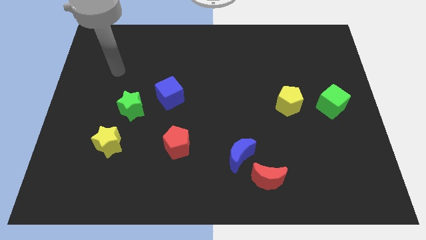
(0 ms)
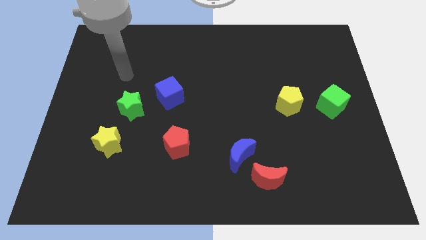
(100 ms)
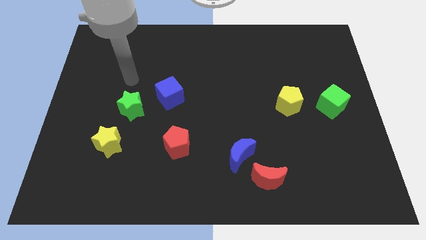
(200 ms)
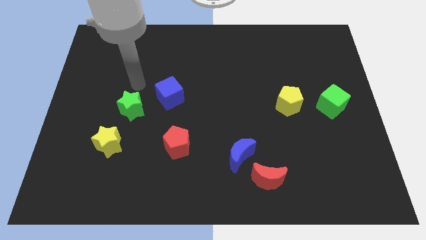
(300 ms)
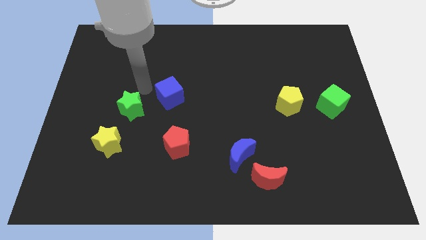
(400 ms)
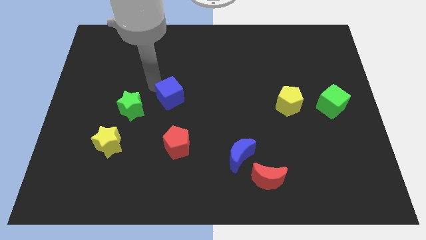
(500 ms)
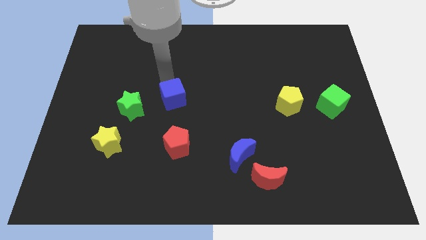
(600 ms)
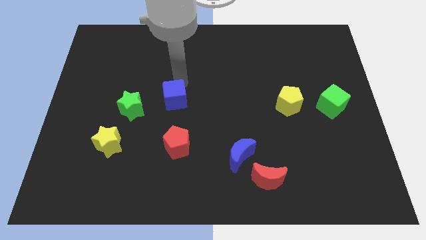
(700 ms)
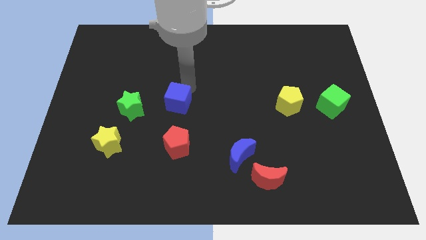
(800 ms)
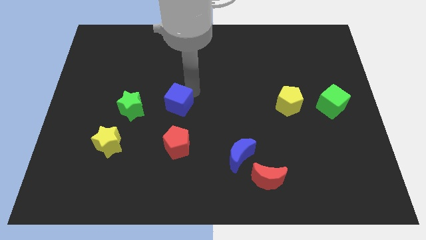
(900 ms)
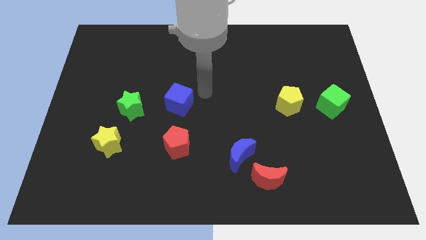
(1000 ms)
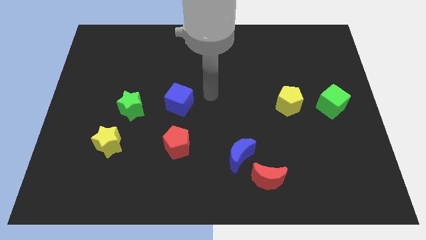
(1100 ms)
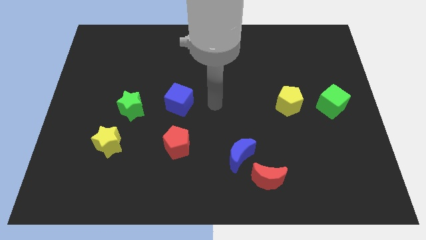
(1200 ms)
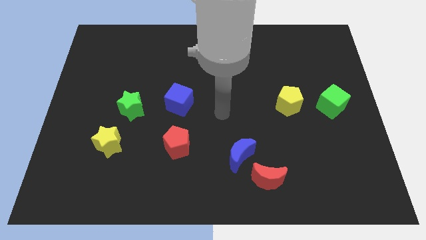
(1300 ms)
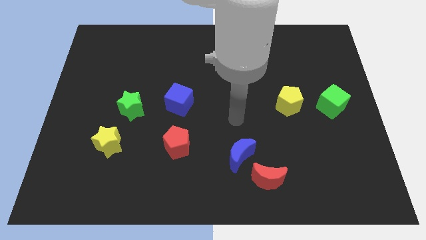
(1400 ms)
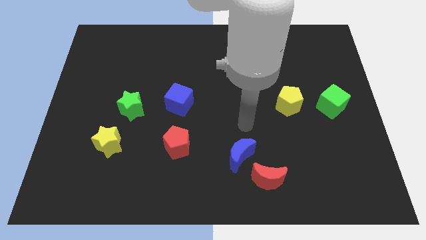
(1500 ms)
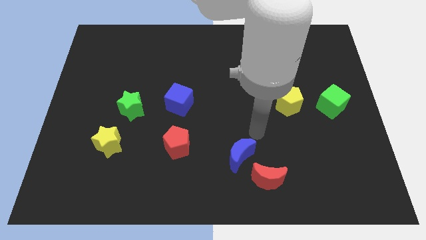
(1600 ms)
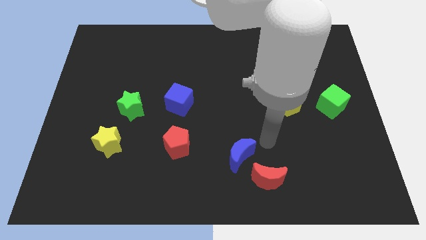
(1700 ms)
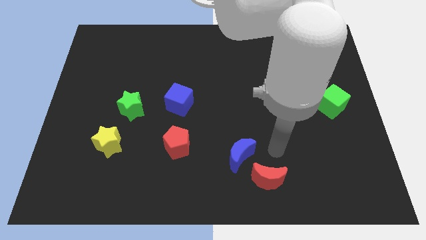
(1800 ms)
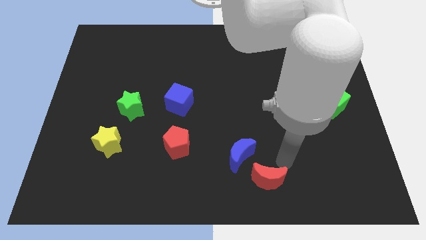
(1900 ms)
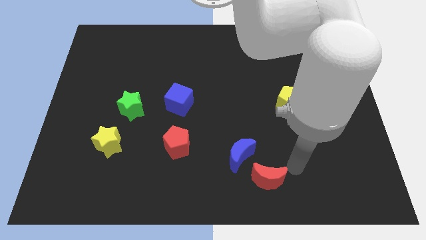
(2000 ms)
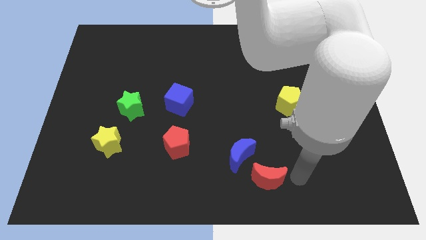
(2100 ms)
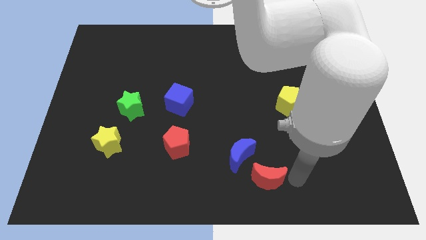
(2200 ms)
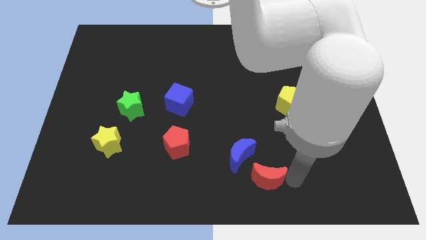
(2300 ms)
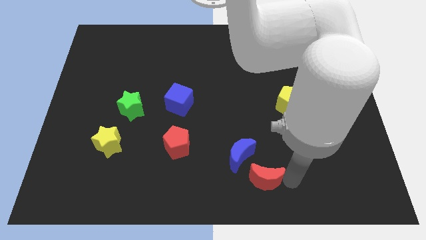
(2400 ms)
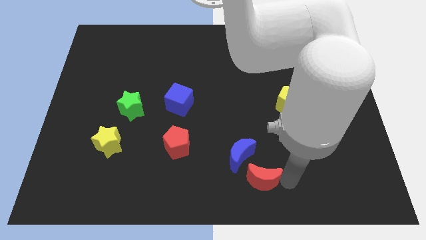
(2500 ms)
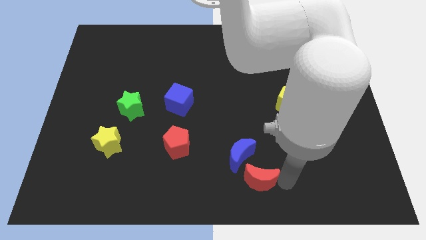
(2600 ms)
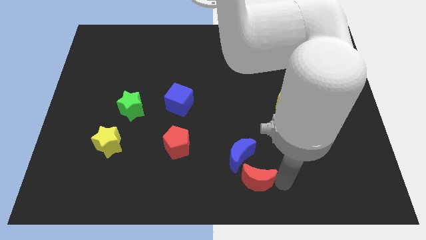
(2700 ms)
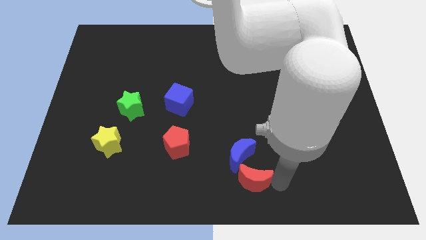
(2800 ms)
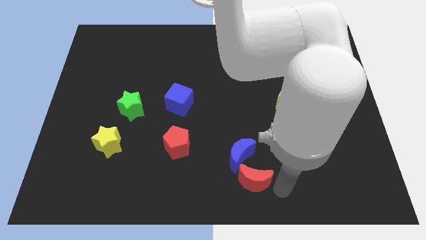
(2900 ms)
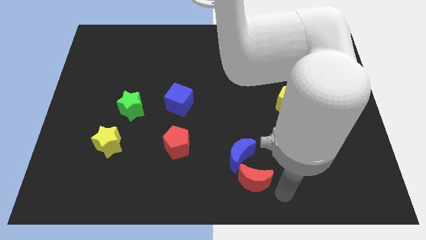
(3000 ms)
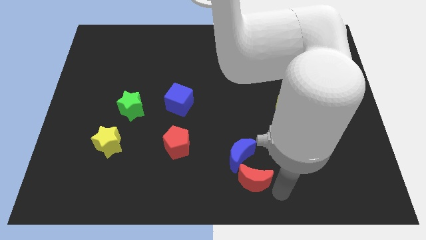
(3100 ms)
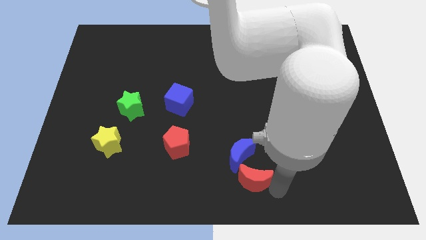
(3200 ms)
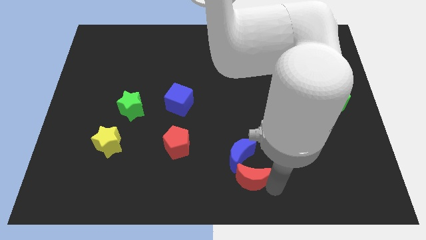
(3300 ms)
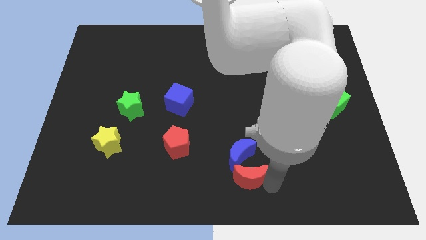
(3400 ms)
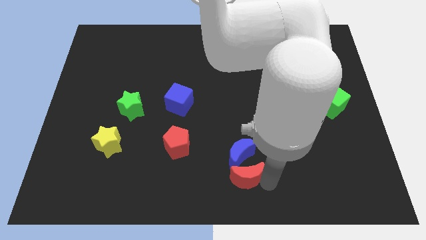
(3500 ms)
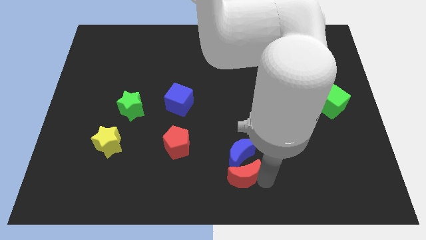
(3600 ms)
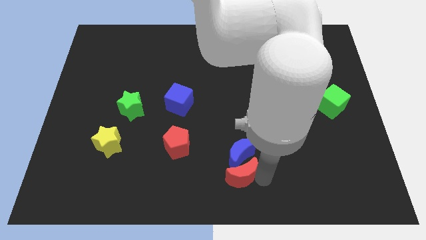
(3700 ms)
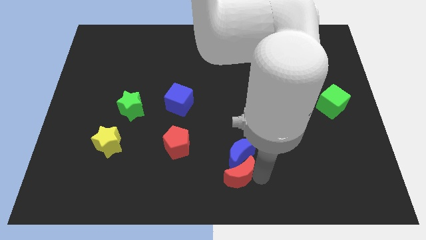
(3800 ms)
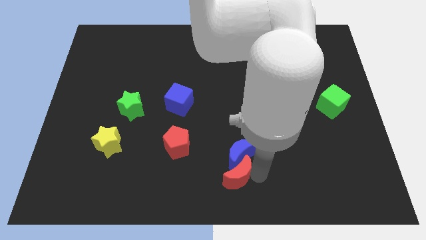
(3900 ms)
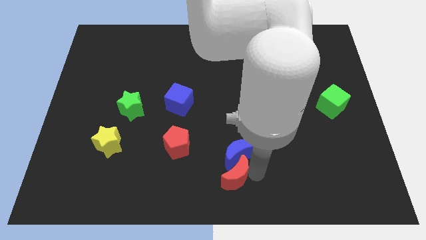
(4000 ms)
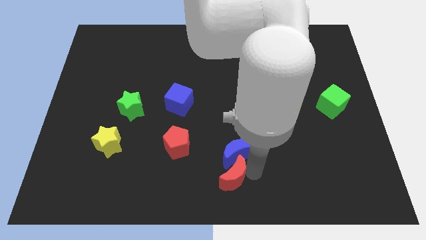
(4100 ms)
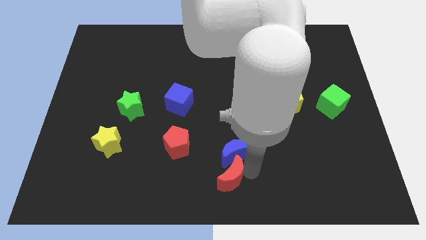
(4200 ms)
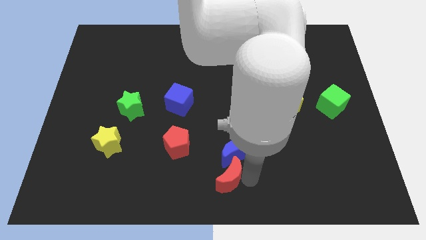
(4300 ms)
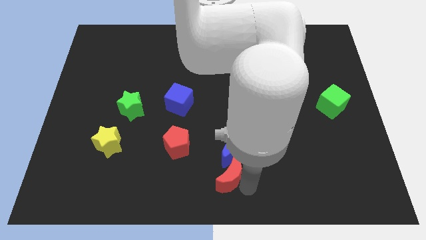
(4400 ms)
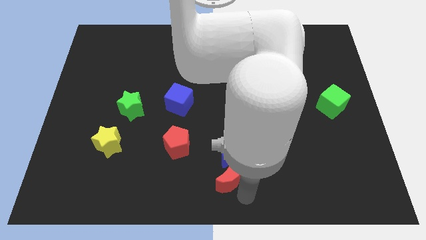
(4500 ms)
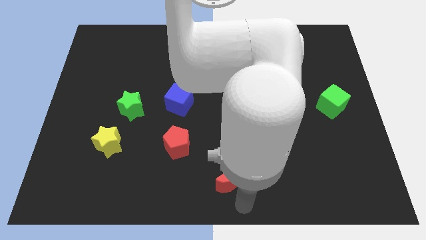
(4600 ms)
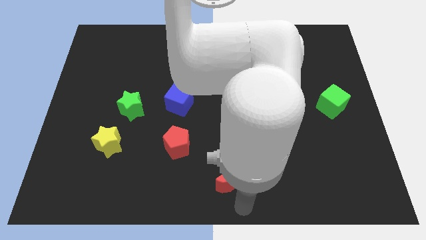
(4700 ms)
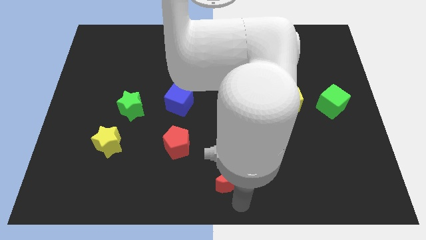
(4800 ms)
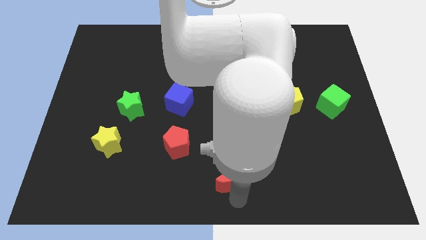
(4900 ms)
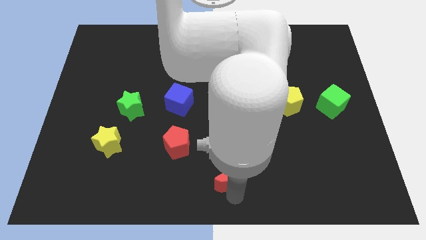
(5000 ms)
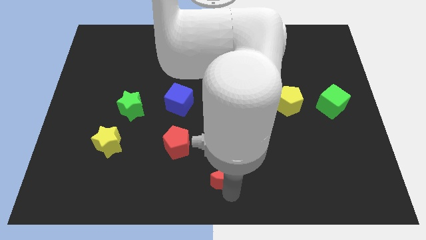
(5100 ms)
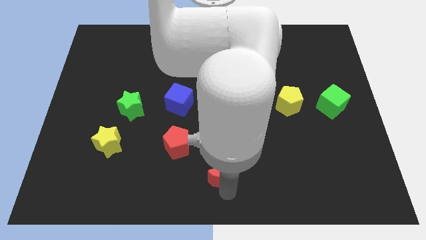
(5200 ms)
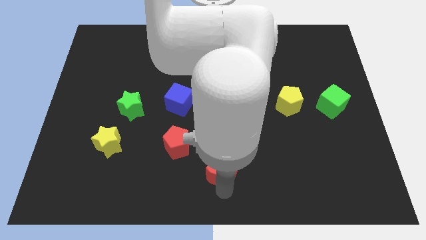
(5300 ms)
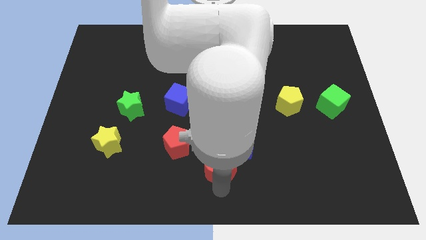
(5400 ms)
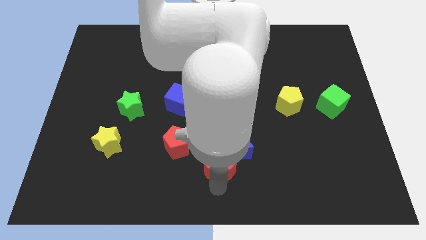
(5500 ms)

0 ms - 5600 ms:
slightly move the red moon upwards and then left

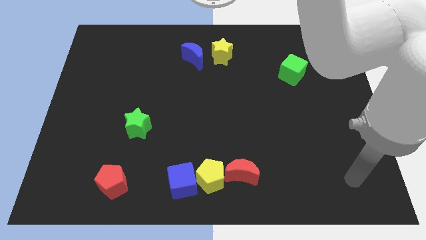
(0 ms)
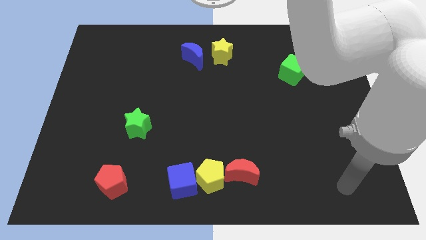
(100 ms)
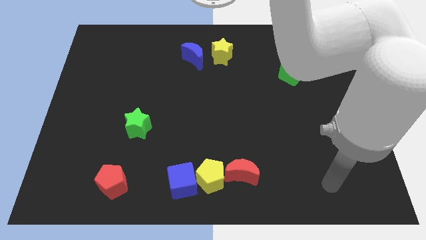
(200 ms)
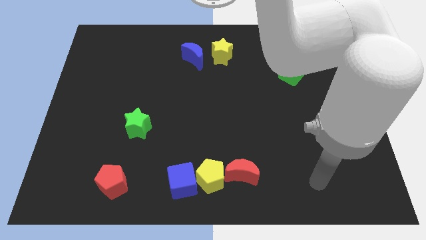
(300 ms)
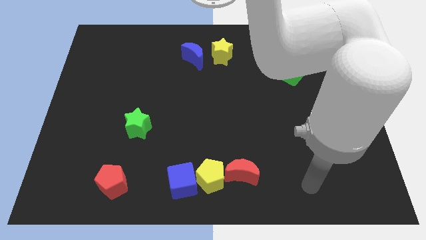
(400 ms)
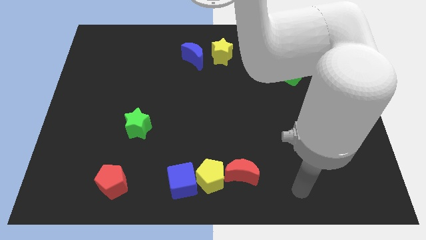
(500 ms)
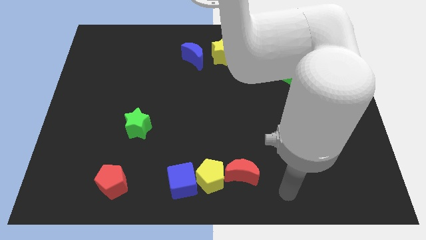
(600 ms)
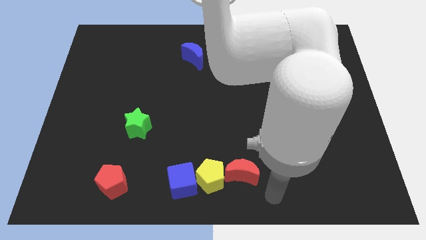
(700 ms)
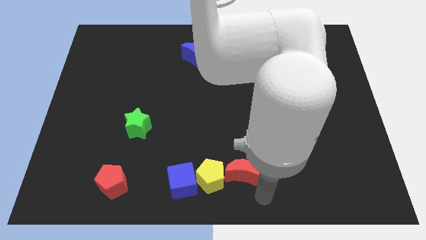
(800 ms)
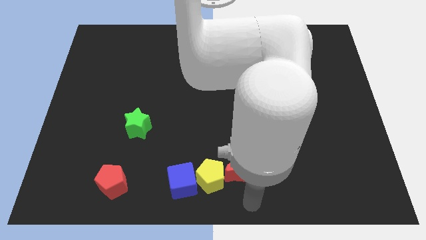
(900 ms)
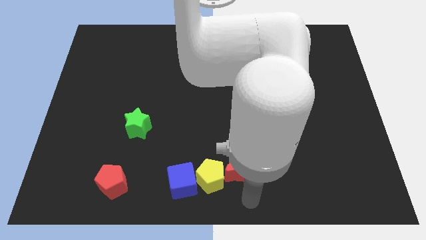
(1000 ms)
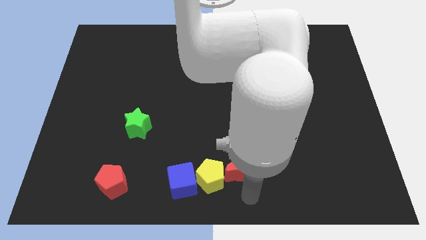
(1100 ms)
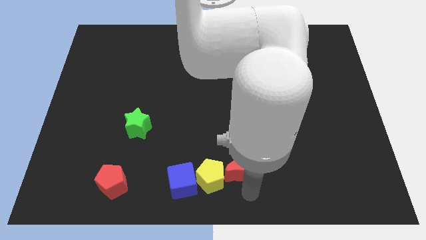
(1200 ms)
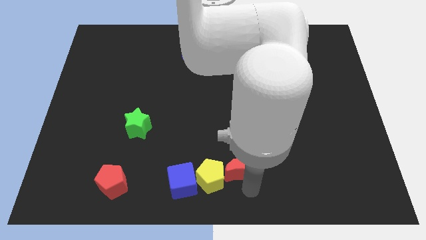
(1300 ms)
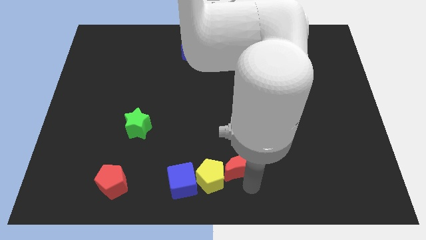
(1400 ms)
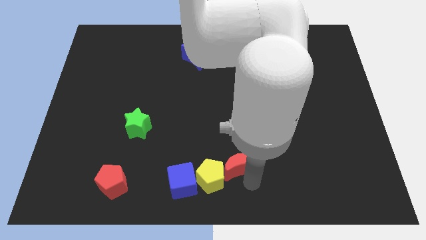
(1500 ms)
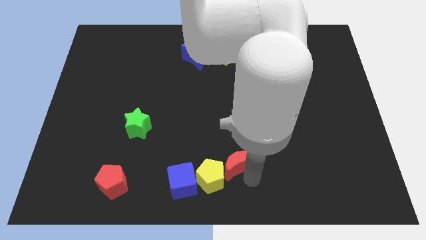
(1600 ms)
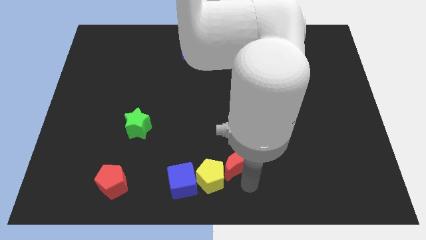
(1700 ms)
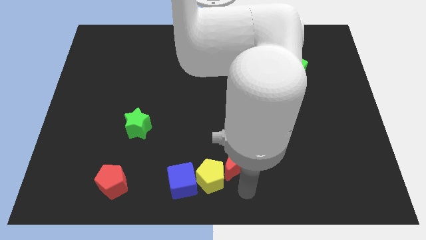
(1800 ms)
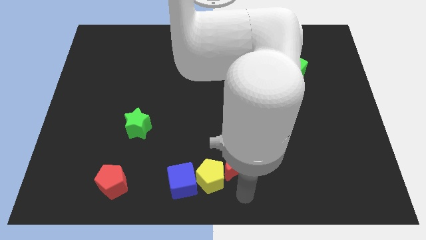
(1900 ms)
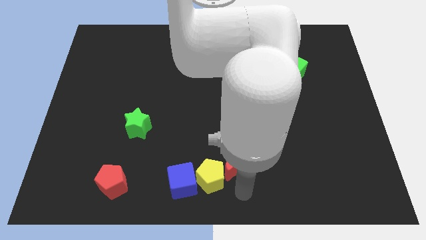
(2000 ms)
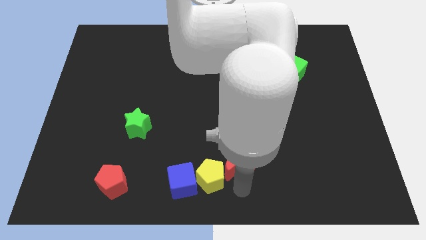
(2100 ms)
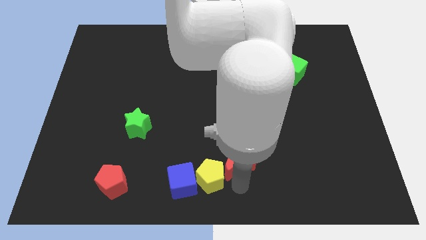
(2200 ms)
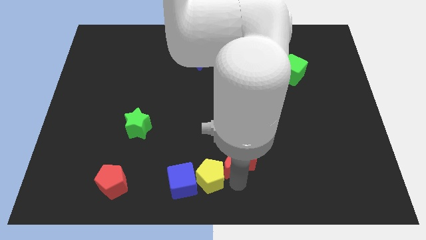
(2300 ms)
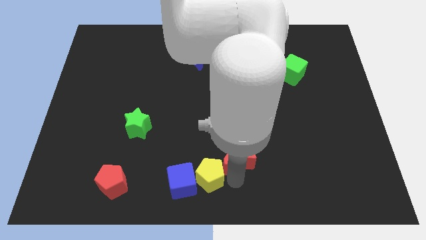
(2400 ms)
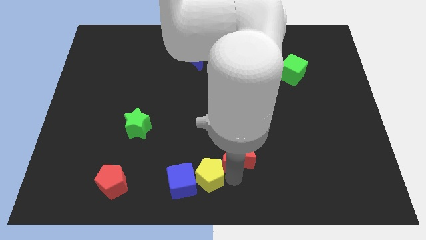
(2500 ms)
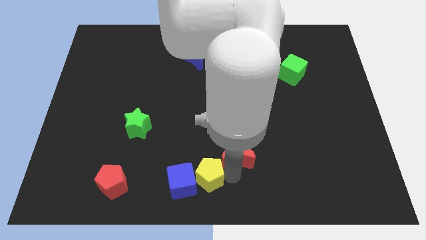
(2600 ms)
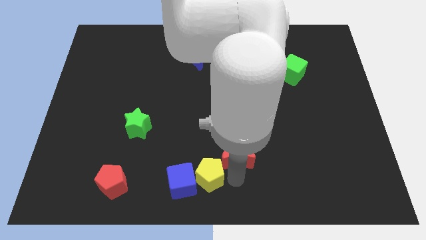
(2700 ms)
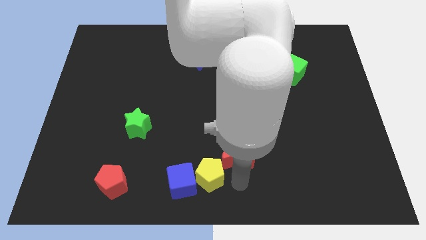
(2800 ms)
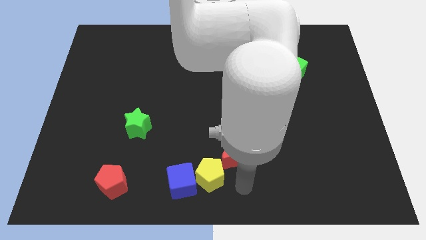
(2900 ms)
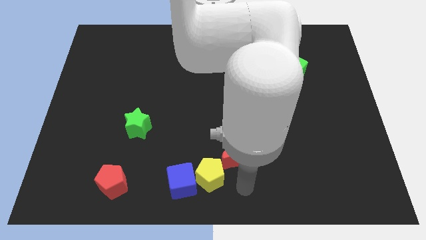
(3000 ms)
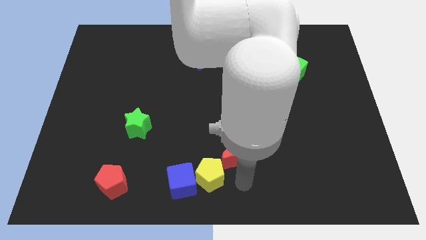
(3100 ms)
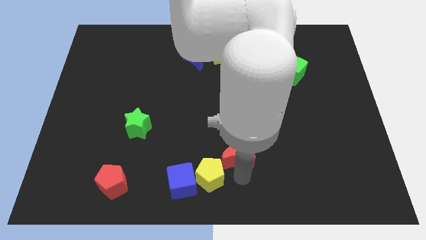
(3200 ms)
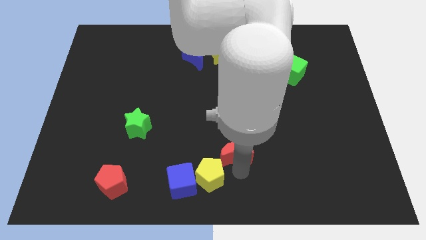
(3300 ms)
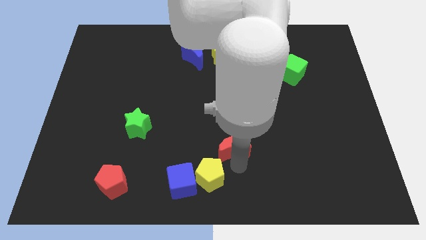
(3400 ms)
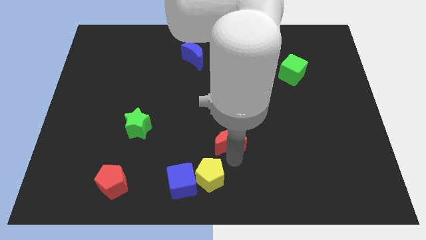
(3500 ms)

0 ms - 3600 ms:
move the red moon upwards a little
